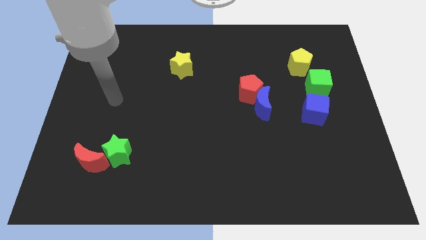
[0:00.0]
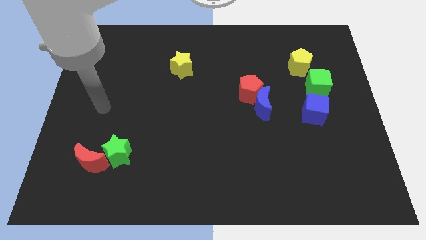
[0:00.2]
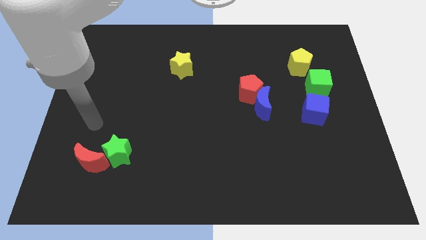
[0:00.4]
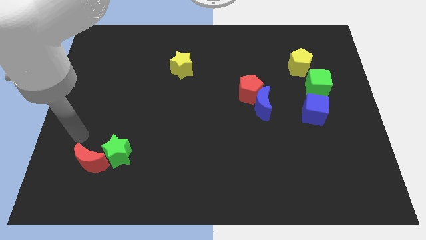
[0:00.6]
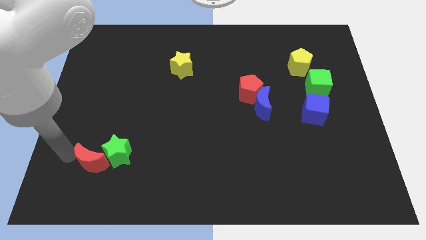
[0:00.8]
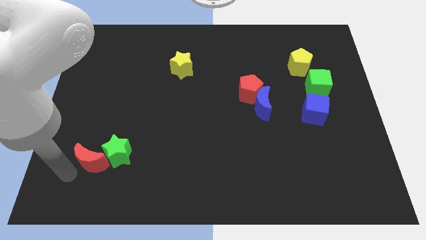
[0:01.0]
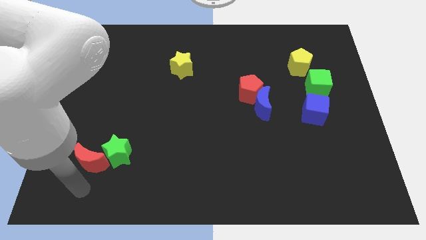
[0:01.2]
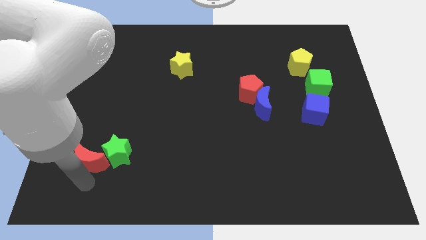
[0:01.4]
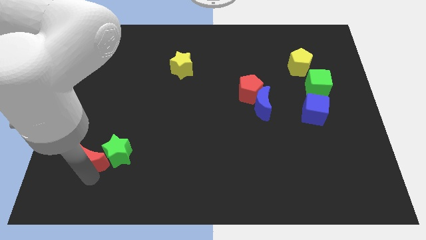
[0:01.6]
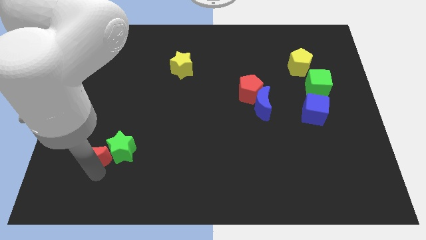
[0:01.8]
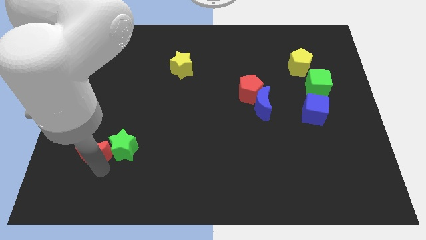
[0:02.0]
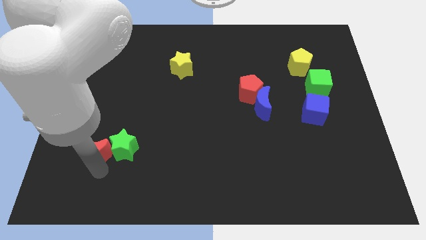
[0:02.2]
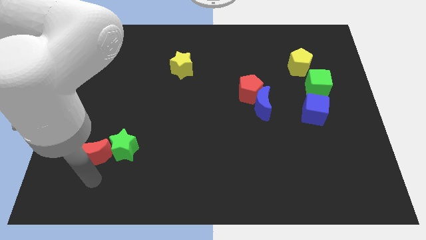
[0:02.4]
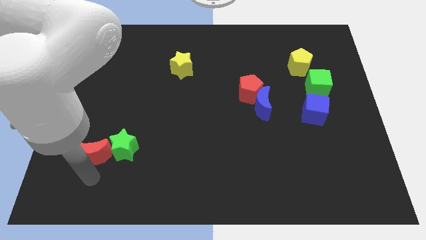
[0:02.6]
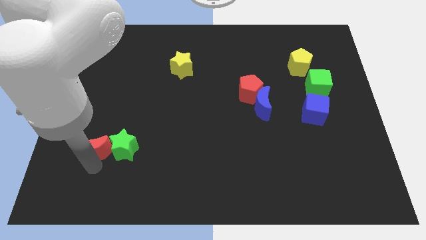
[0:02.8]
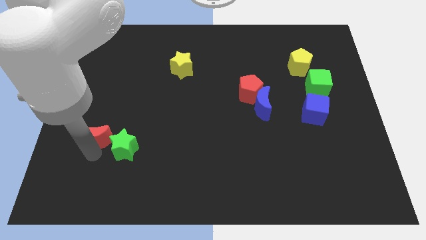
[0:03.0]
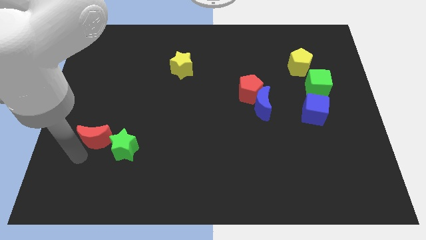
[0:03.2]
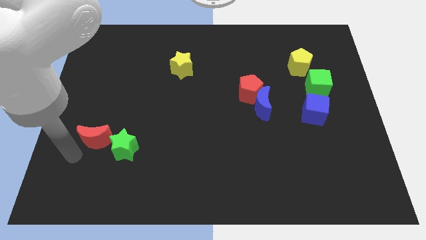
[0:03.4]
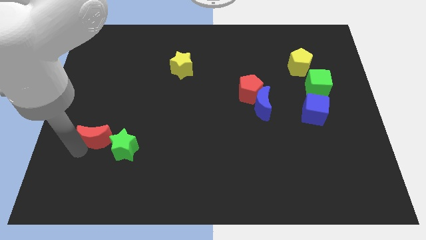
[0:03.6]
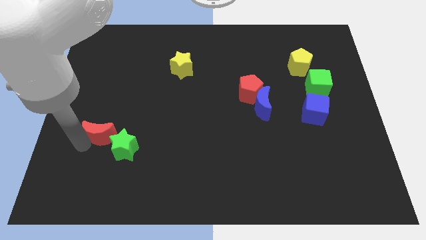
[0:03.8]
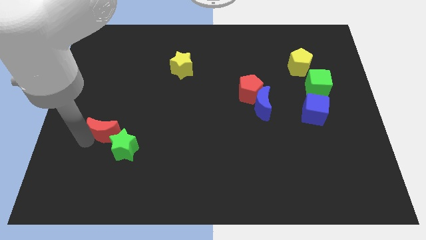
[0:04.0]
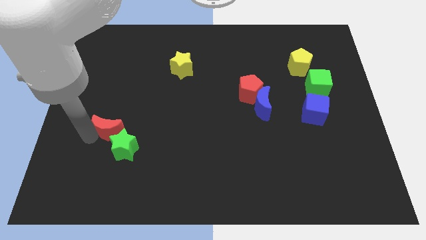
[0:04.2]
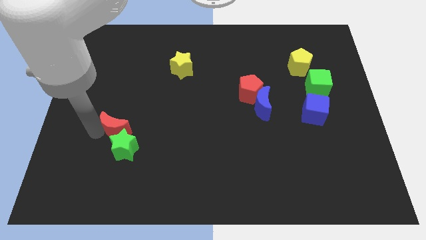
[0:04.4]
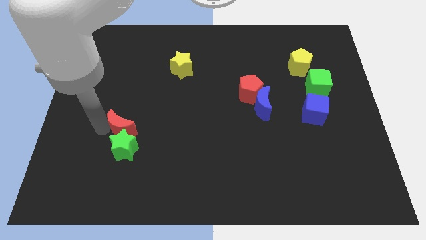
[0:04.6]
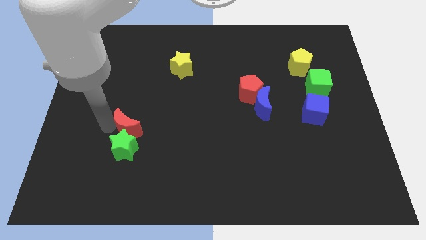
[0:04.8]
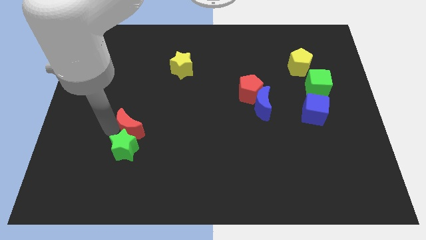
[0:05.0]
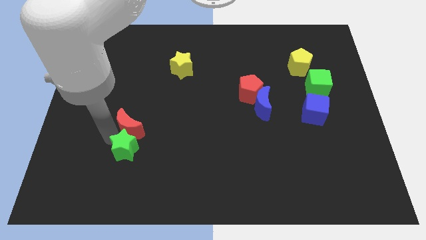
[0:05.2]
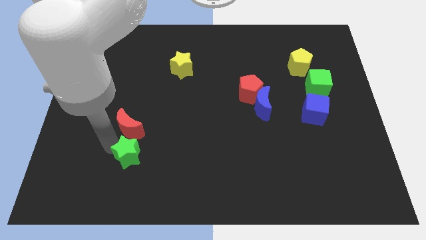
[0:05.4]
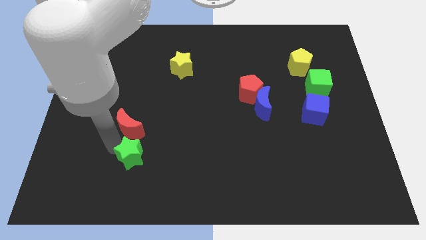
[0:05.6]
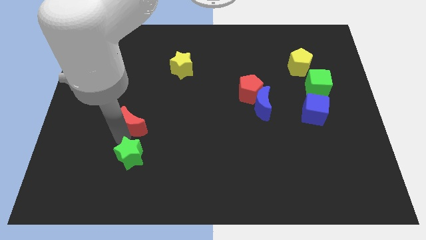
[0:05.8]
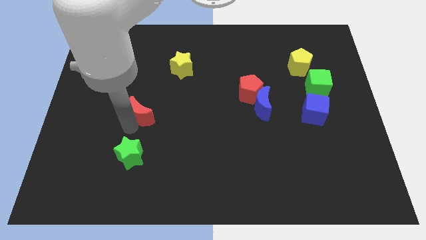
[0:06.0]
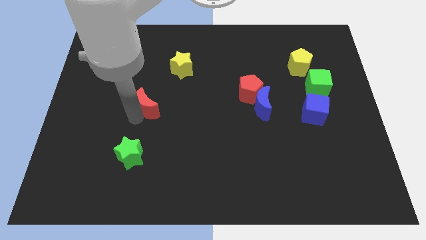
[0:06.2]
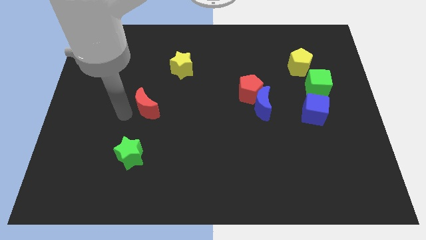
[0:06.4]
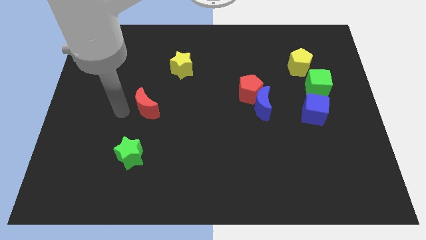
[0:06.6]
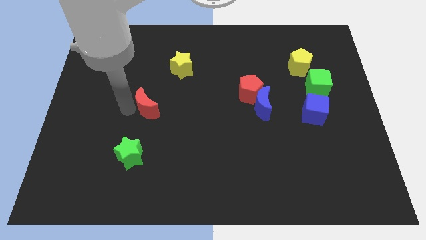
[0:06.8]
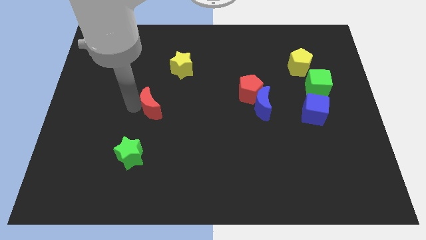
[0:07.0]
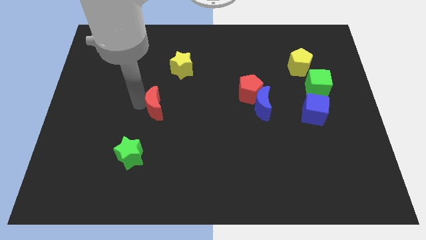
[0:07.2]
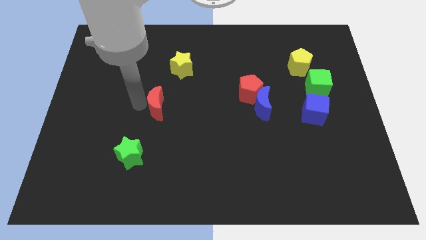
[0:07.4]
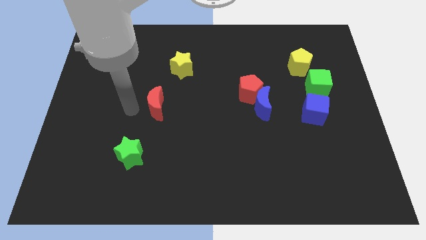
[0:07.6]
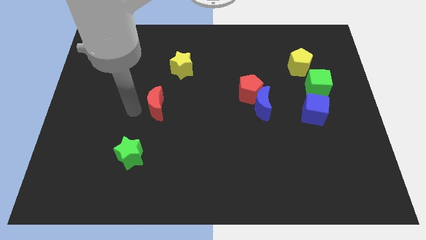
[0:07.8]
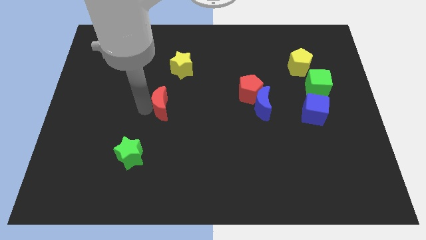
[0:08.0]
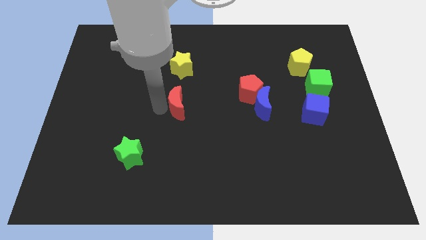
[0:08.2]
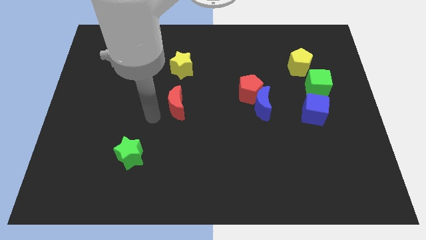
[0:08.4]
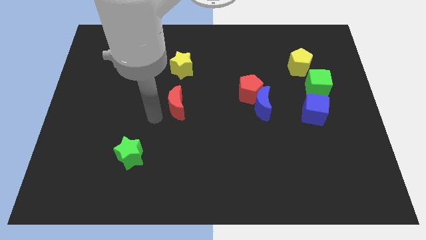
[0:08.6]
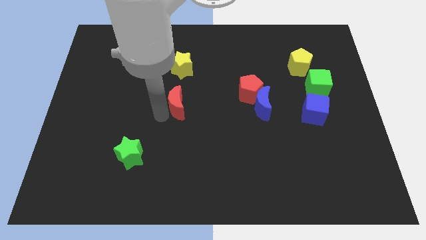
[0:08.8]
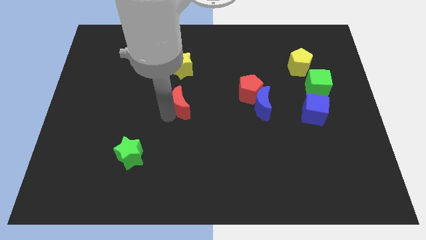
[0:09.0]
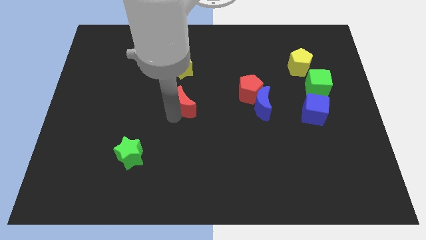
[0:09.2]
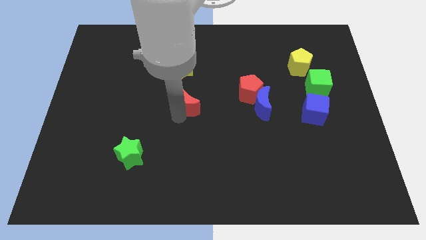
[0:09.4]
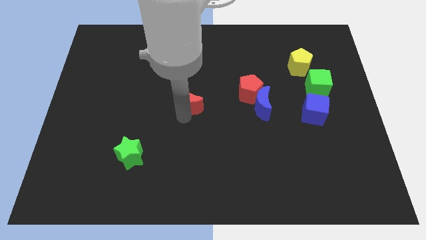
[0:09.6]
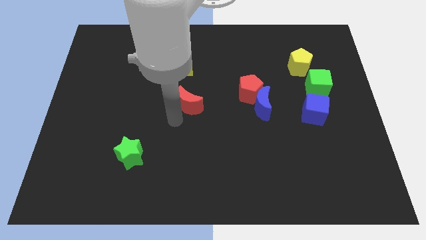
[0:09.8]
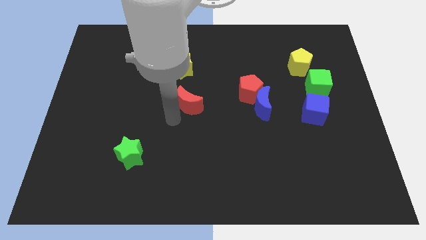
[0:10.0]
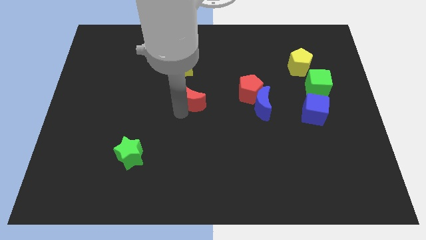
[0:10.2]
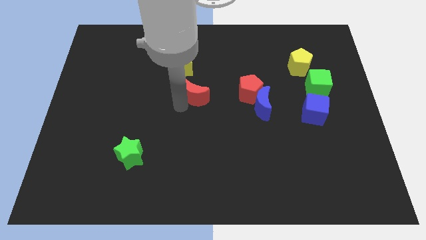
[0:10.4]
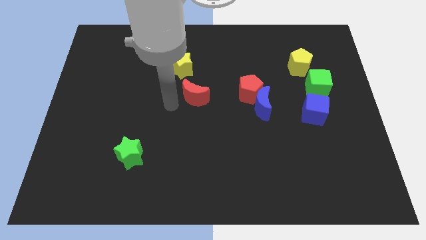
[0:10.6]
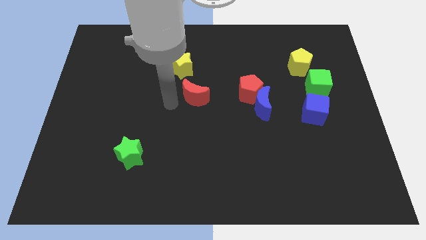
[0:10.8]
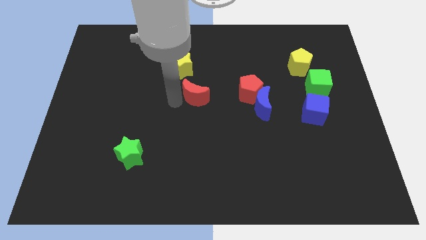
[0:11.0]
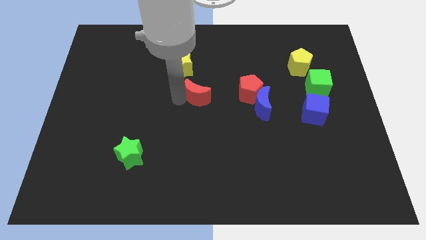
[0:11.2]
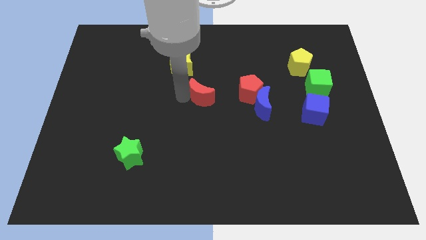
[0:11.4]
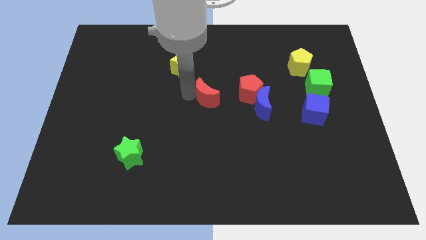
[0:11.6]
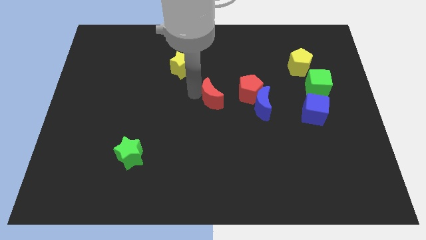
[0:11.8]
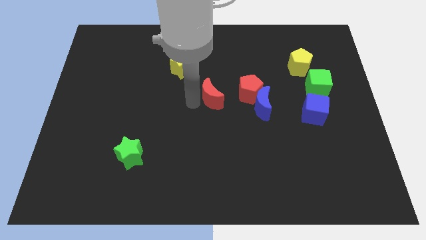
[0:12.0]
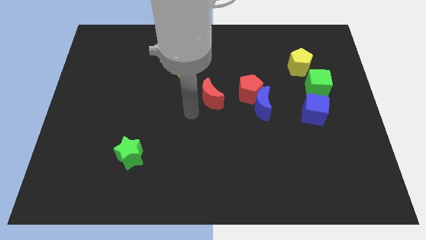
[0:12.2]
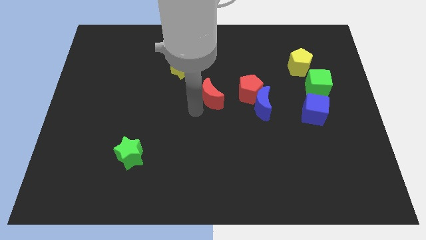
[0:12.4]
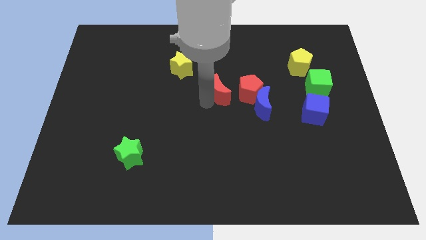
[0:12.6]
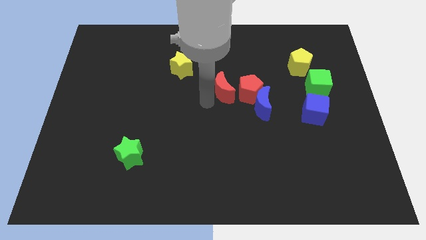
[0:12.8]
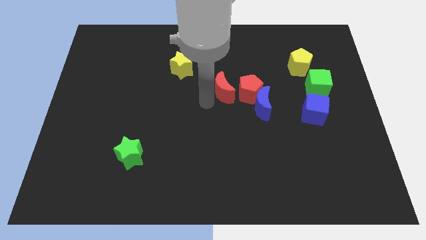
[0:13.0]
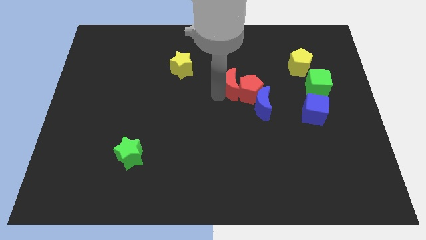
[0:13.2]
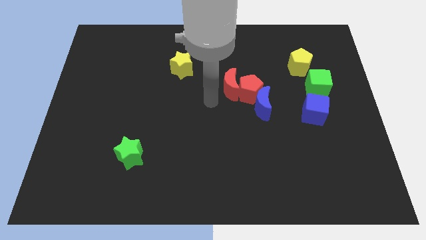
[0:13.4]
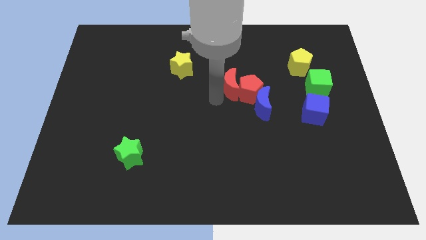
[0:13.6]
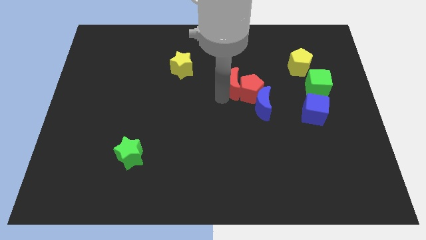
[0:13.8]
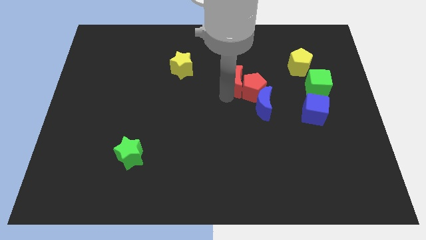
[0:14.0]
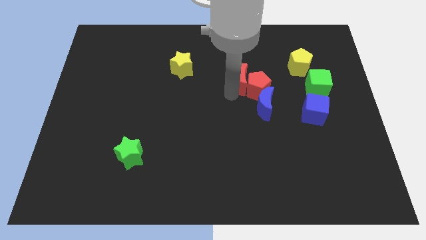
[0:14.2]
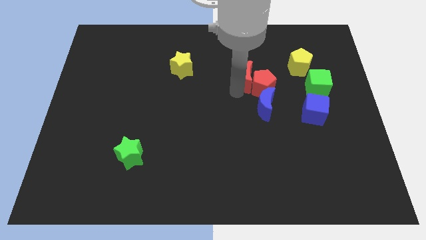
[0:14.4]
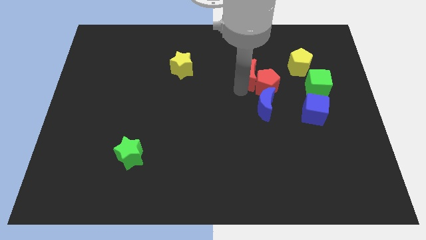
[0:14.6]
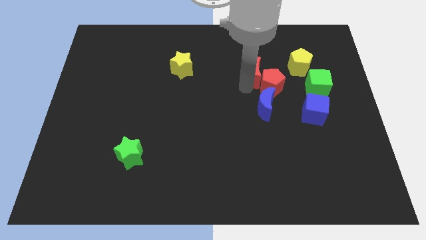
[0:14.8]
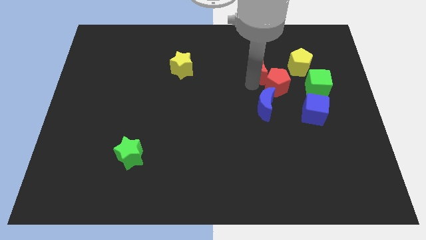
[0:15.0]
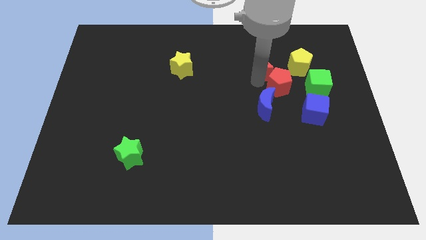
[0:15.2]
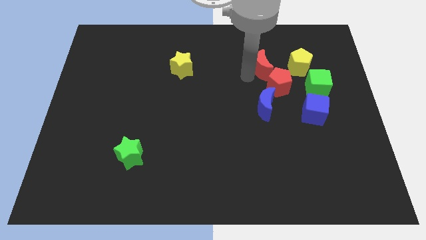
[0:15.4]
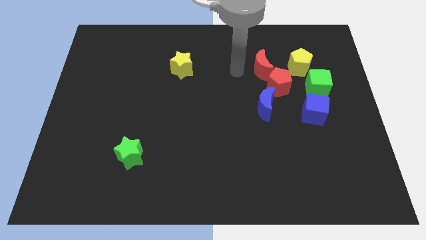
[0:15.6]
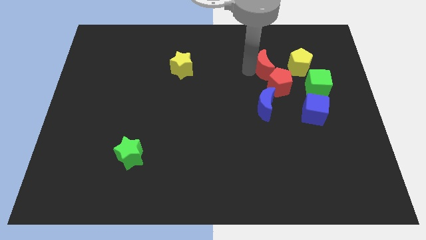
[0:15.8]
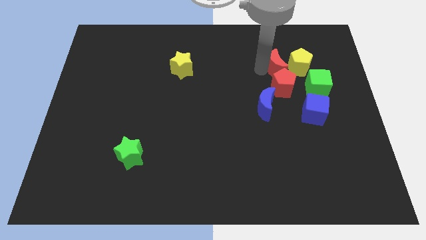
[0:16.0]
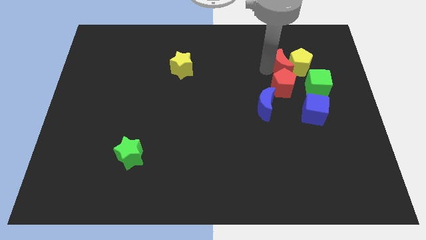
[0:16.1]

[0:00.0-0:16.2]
slide the red moon close to the yellow pentagon
